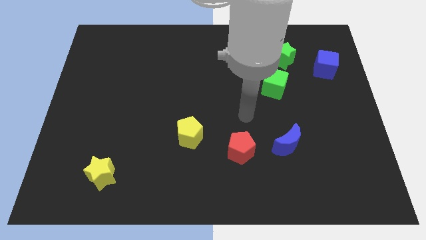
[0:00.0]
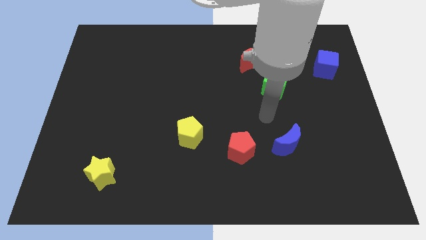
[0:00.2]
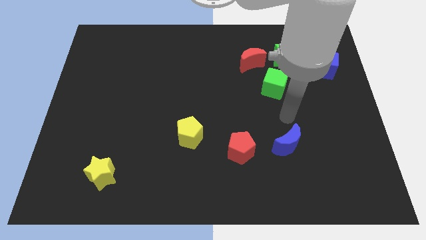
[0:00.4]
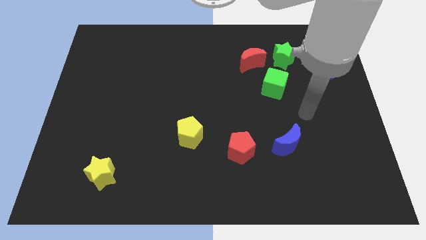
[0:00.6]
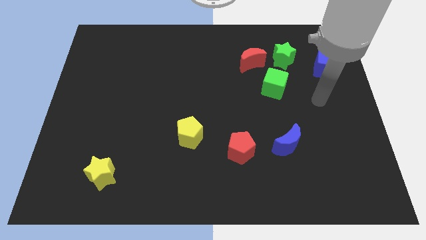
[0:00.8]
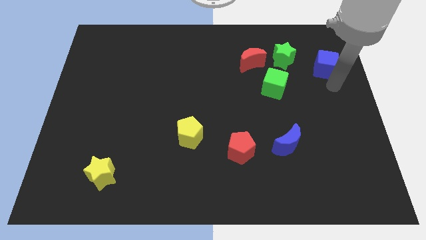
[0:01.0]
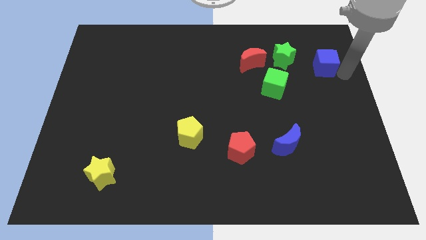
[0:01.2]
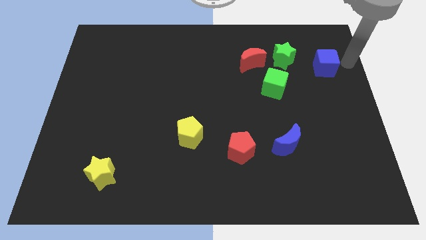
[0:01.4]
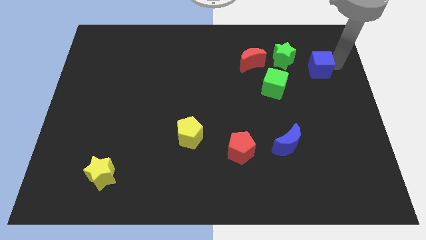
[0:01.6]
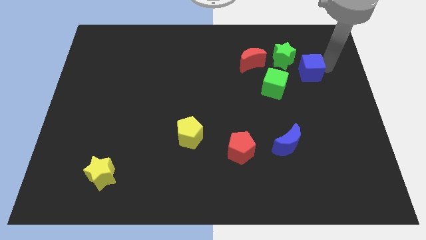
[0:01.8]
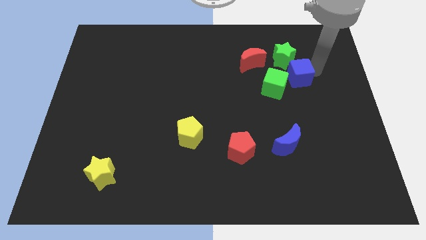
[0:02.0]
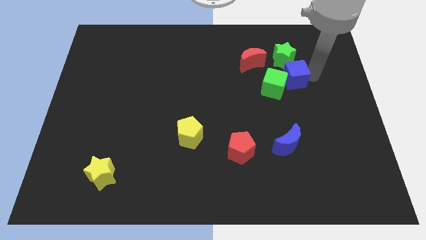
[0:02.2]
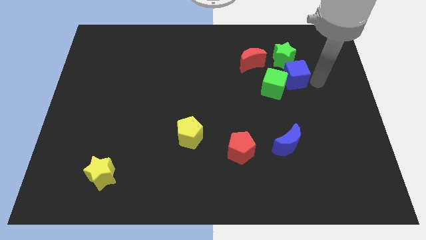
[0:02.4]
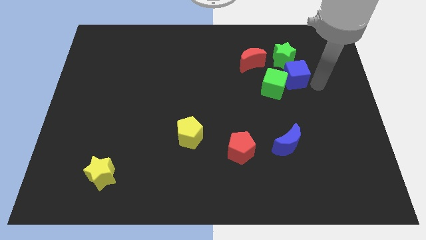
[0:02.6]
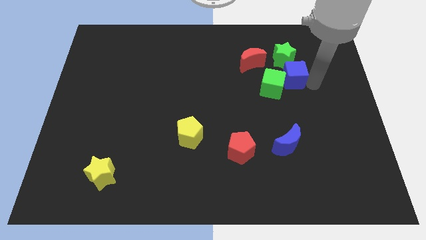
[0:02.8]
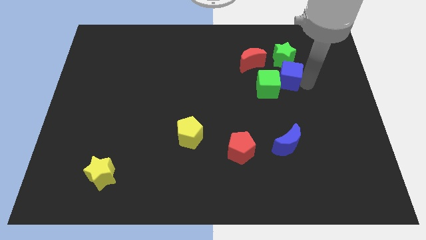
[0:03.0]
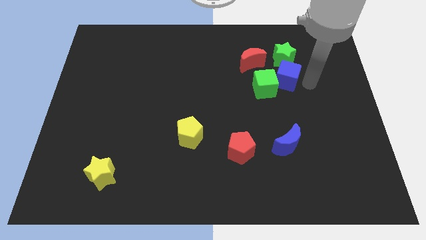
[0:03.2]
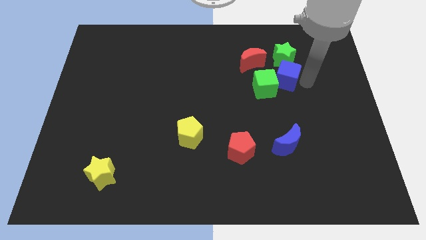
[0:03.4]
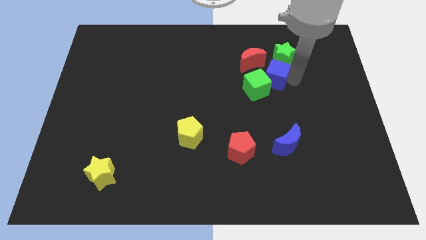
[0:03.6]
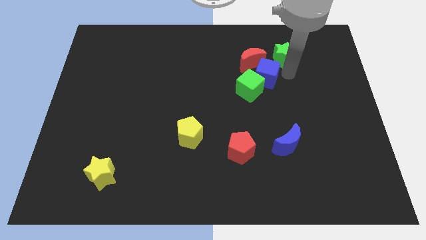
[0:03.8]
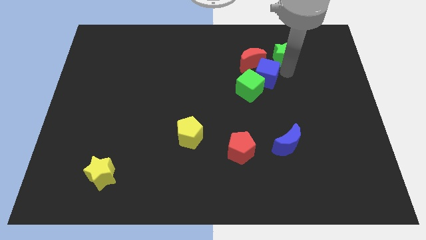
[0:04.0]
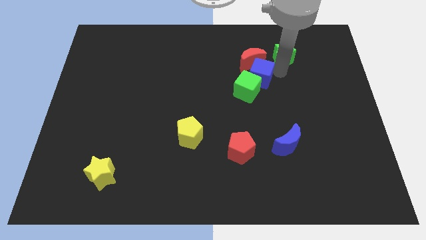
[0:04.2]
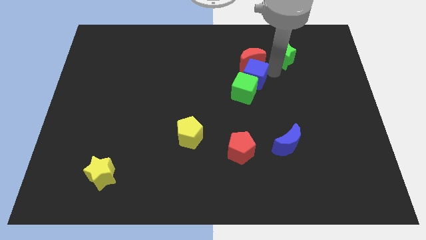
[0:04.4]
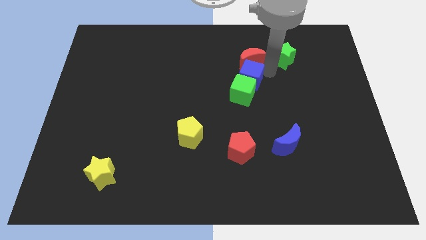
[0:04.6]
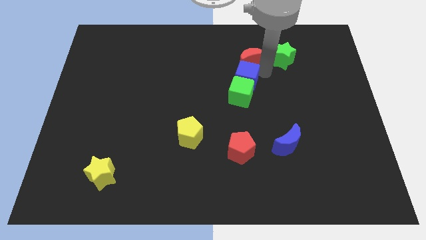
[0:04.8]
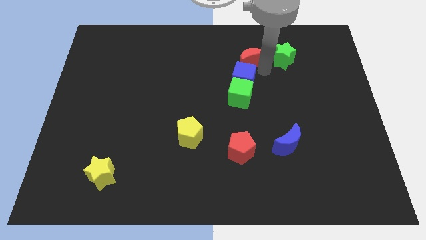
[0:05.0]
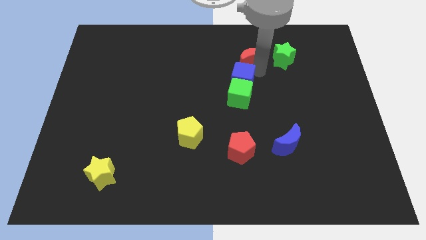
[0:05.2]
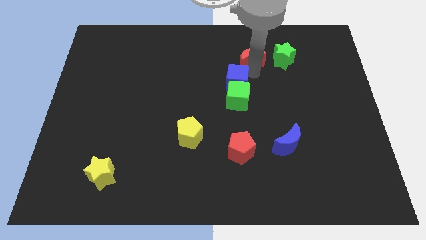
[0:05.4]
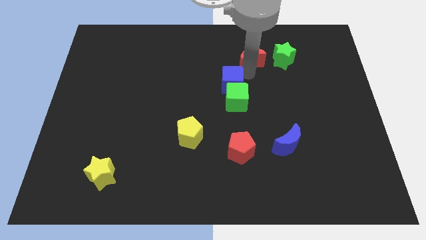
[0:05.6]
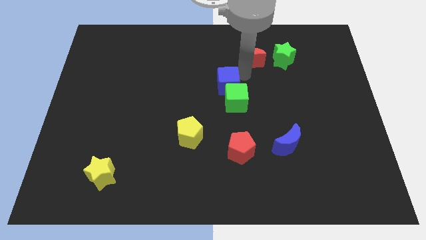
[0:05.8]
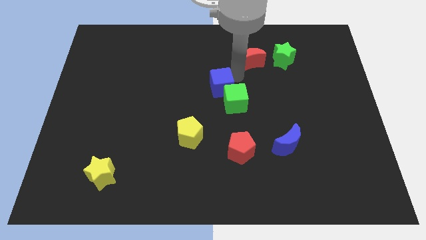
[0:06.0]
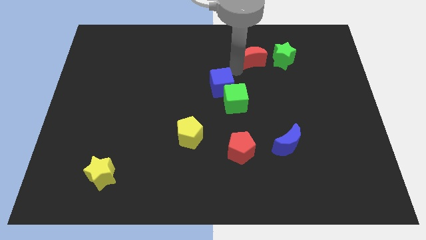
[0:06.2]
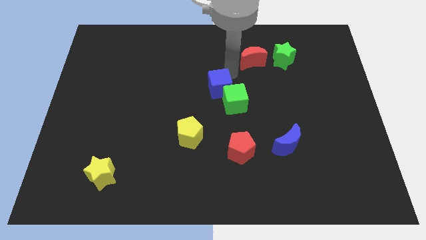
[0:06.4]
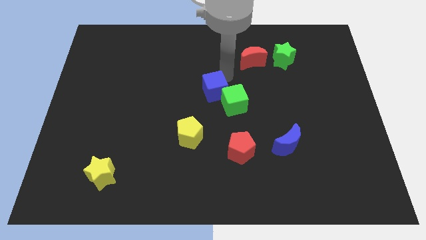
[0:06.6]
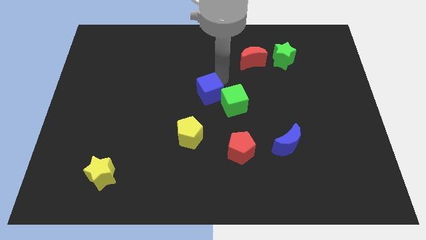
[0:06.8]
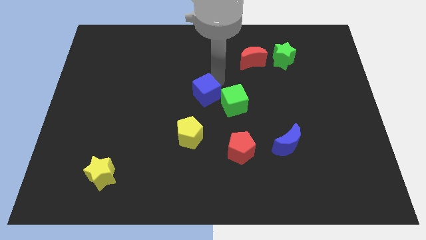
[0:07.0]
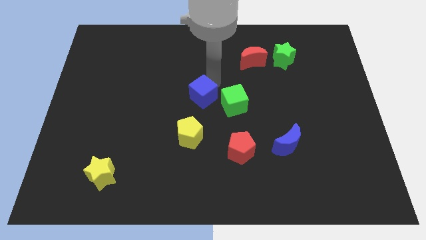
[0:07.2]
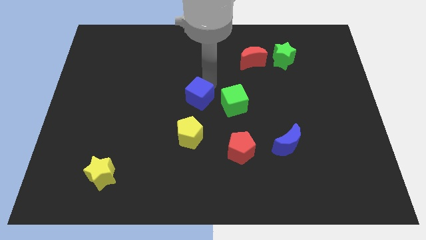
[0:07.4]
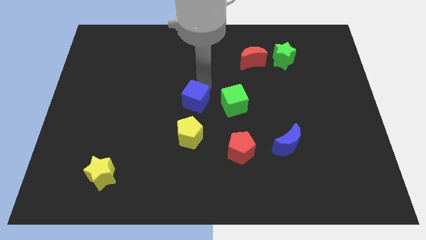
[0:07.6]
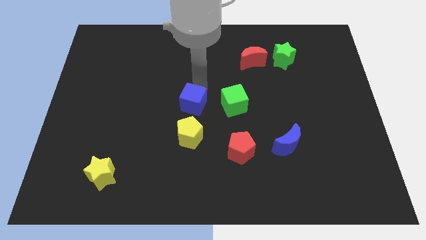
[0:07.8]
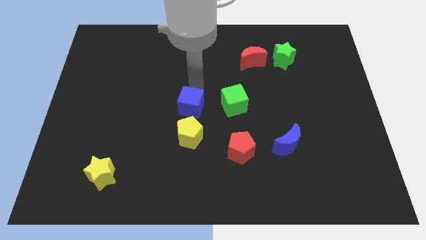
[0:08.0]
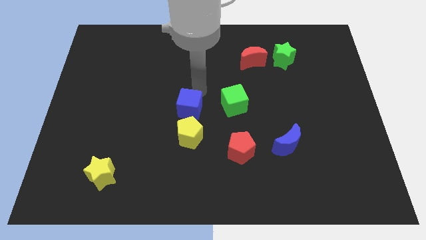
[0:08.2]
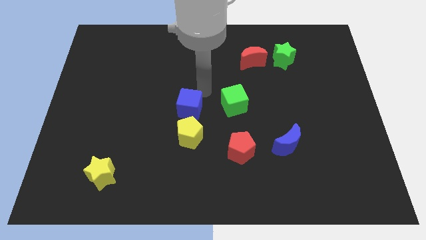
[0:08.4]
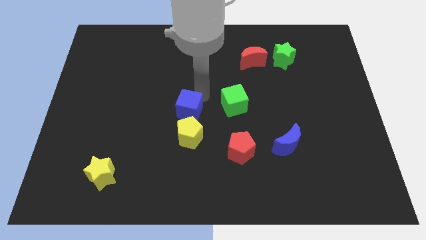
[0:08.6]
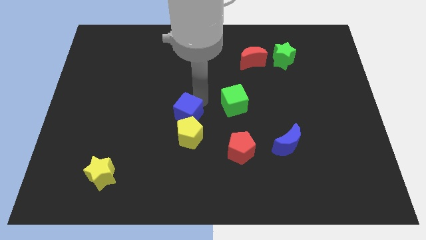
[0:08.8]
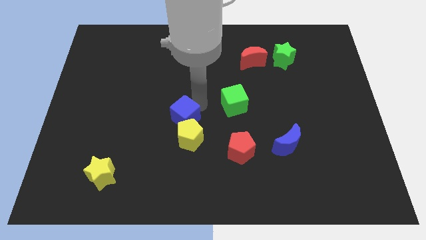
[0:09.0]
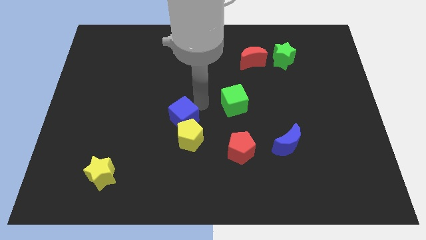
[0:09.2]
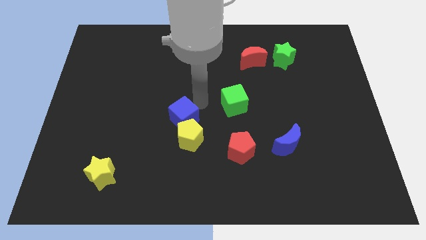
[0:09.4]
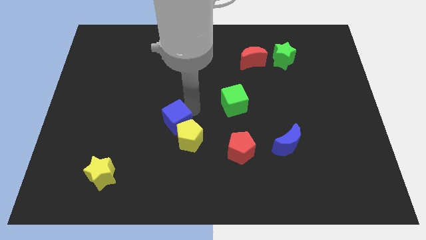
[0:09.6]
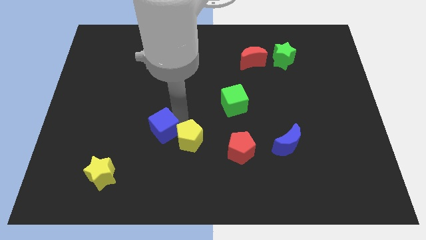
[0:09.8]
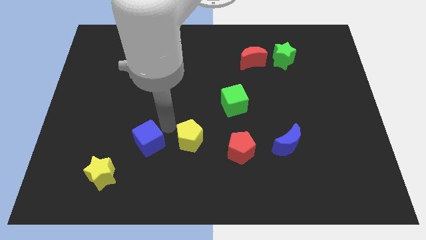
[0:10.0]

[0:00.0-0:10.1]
move the blue cube to the top right of the yellow star

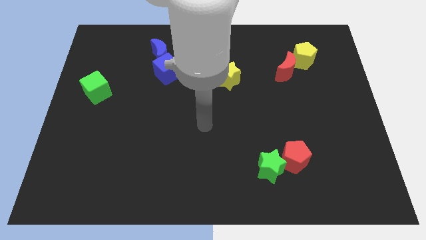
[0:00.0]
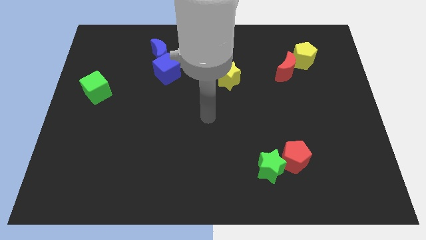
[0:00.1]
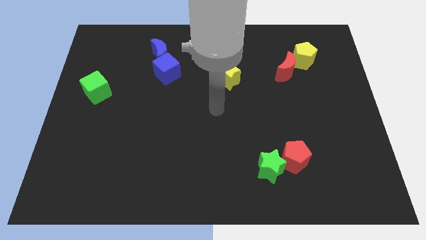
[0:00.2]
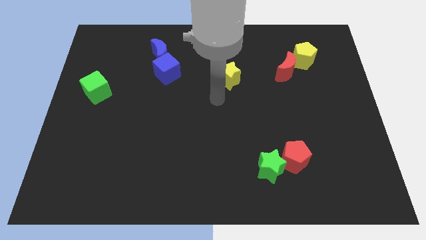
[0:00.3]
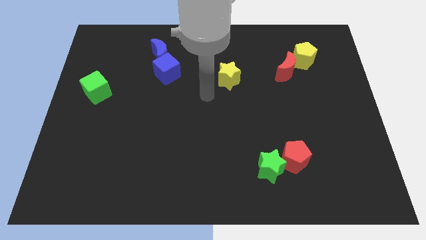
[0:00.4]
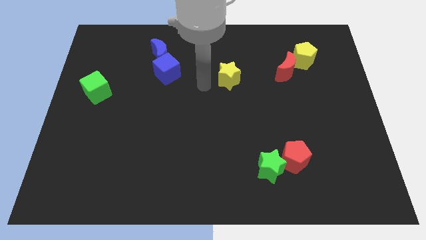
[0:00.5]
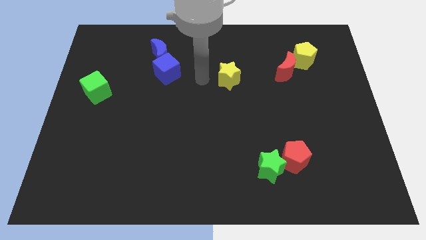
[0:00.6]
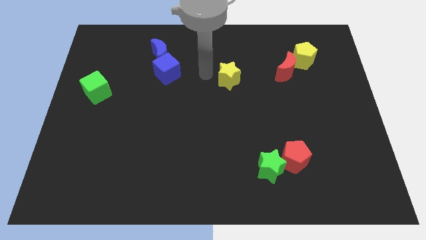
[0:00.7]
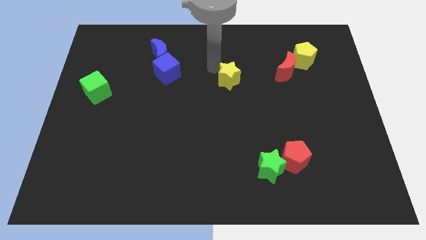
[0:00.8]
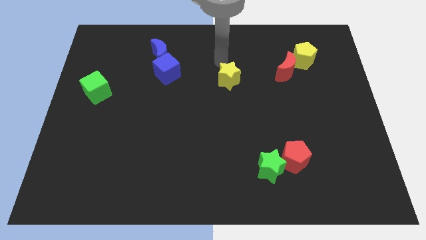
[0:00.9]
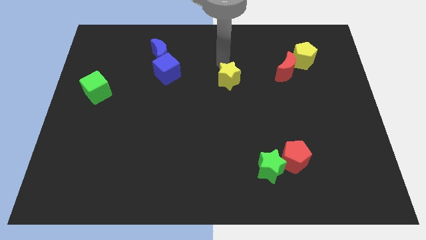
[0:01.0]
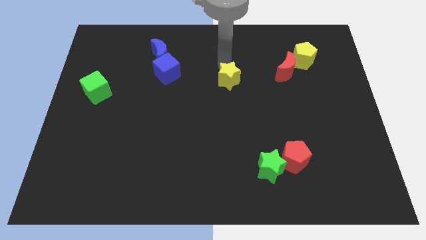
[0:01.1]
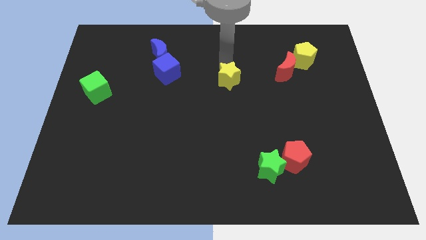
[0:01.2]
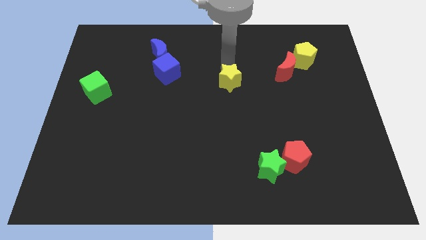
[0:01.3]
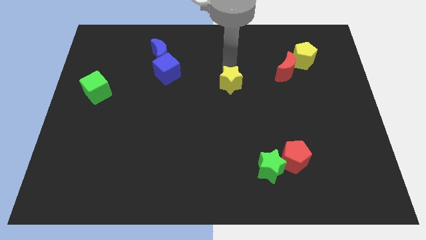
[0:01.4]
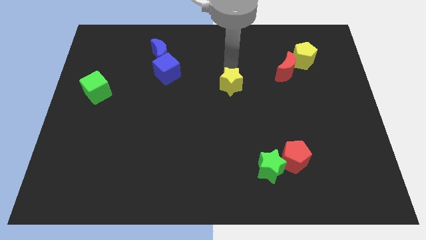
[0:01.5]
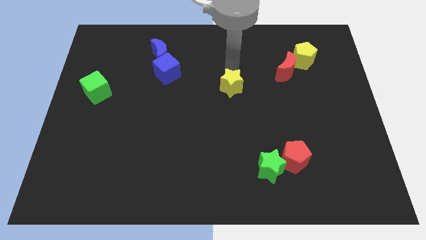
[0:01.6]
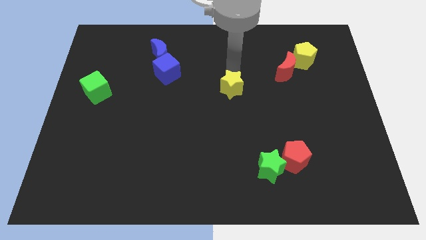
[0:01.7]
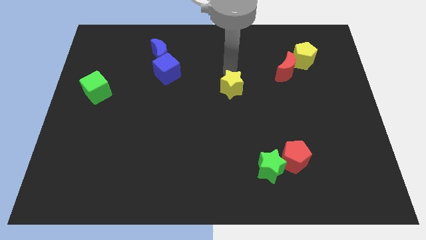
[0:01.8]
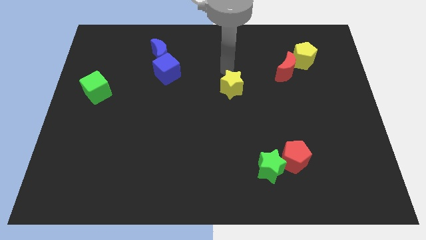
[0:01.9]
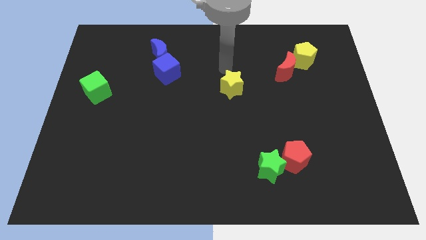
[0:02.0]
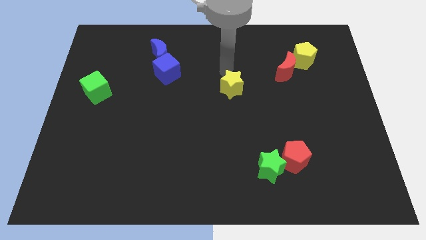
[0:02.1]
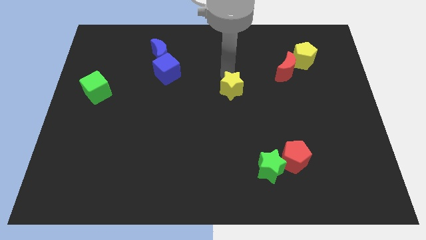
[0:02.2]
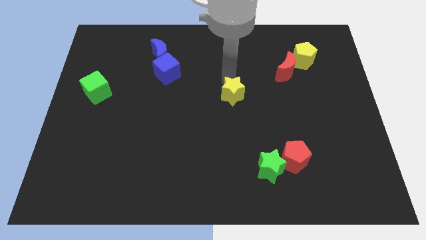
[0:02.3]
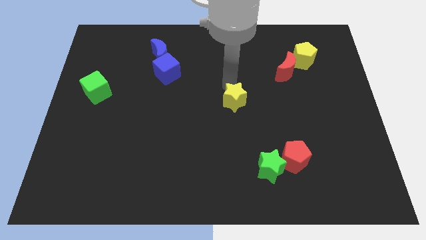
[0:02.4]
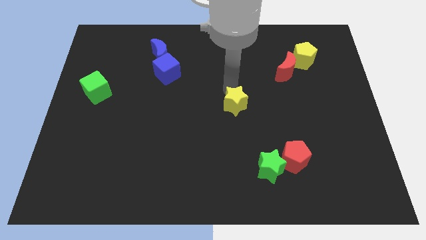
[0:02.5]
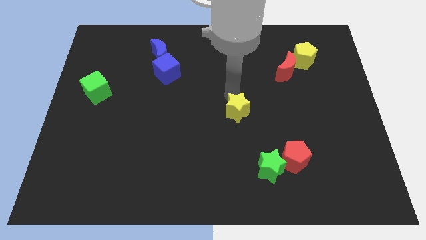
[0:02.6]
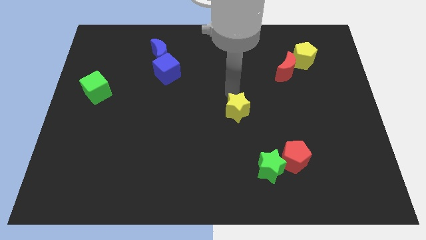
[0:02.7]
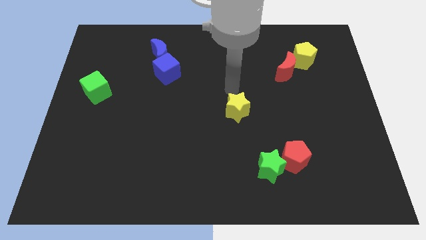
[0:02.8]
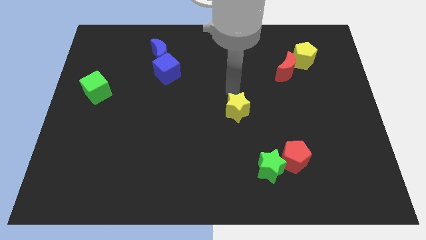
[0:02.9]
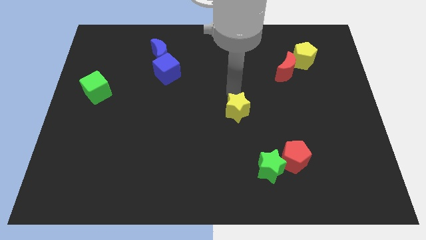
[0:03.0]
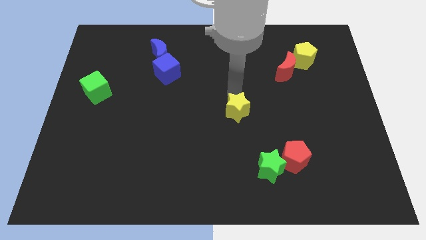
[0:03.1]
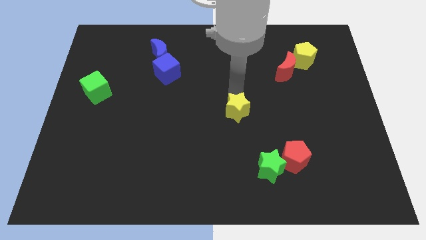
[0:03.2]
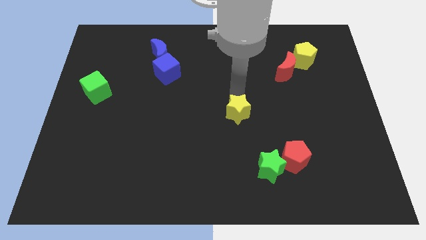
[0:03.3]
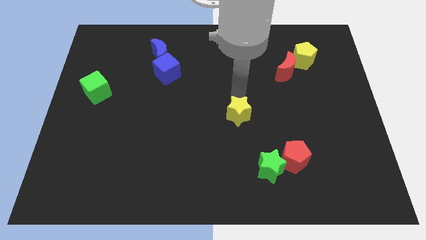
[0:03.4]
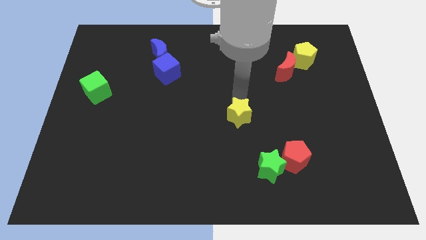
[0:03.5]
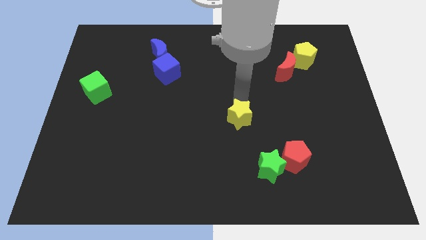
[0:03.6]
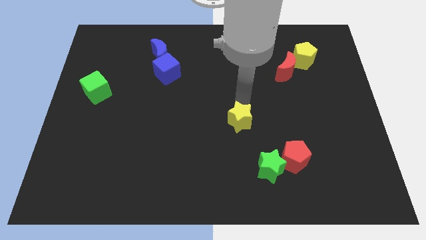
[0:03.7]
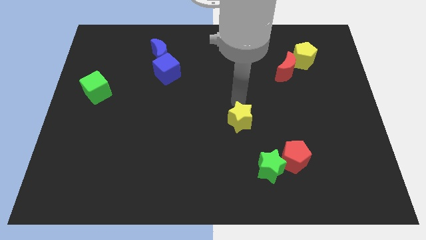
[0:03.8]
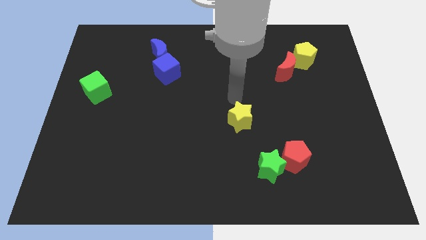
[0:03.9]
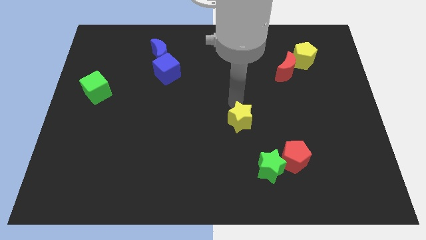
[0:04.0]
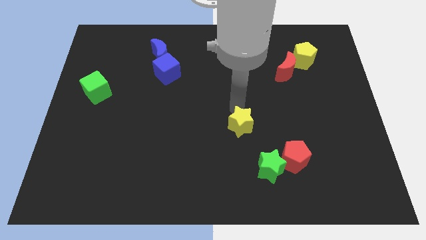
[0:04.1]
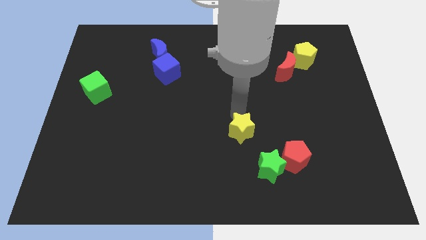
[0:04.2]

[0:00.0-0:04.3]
slide the yellow star to the top left side of the green star
